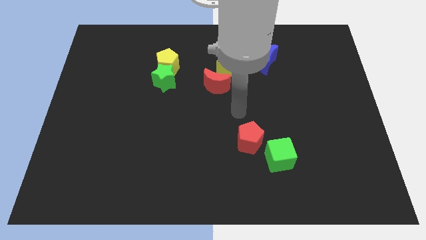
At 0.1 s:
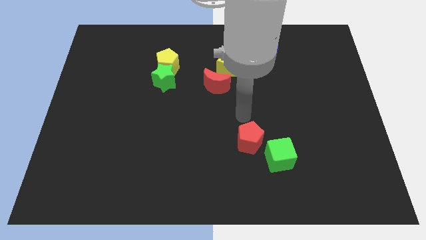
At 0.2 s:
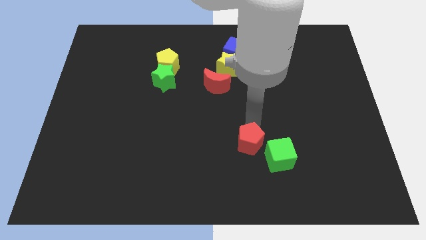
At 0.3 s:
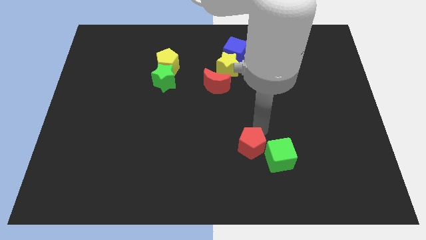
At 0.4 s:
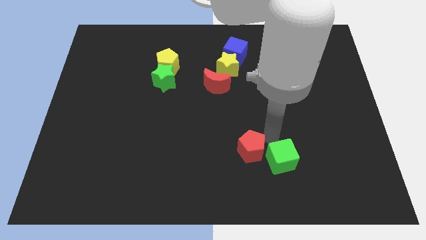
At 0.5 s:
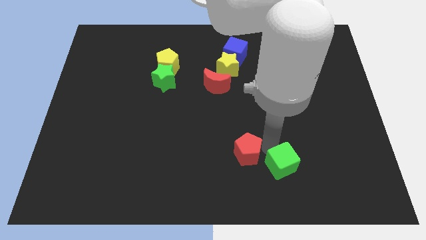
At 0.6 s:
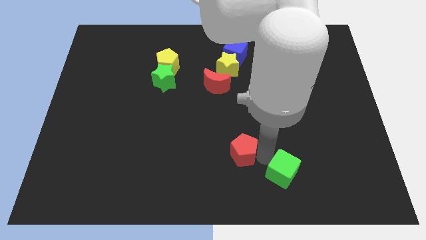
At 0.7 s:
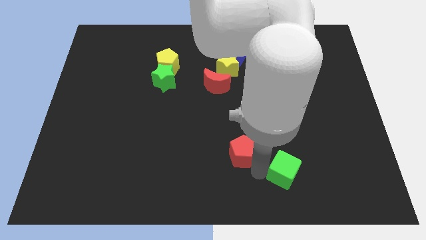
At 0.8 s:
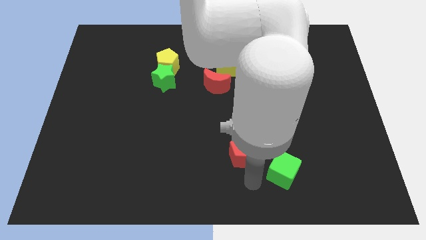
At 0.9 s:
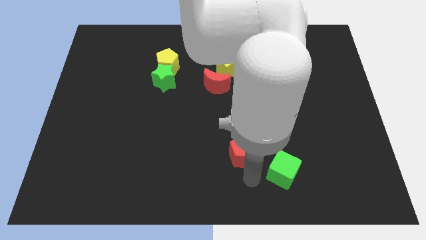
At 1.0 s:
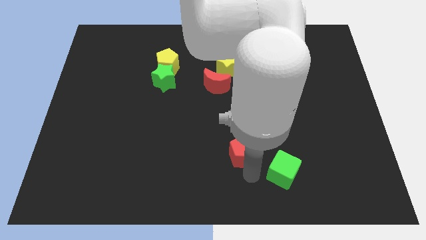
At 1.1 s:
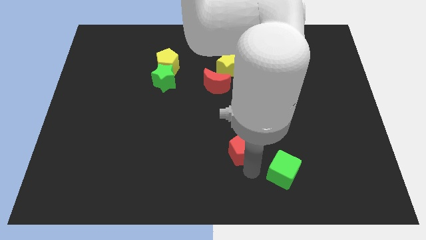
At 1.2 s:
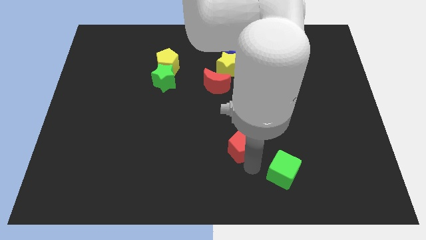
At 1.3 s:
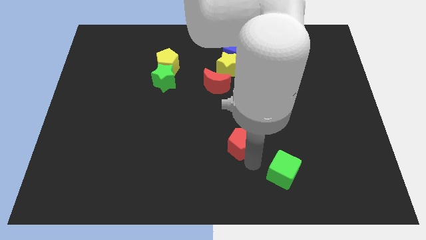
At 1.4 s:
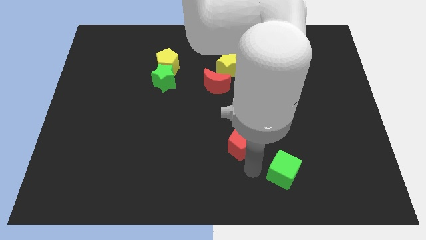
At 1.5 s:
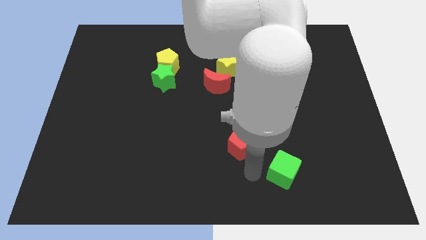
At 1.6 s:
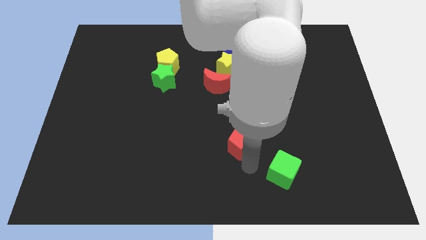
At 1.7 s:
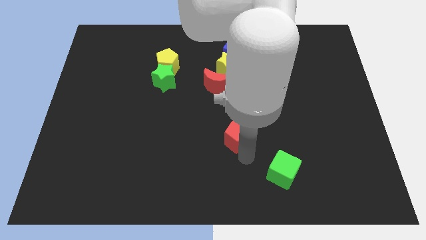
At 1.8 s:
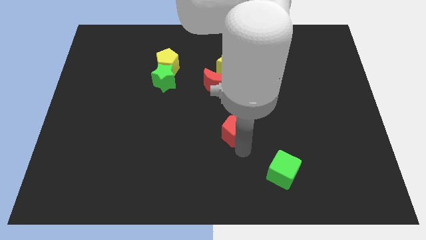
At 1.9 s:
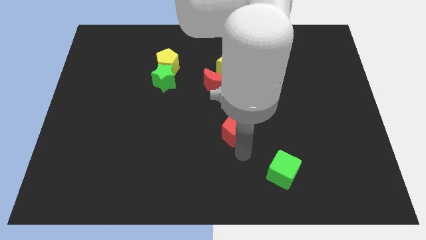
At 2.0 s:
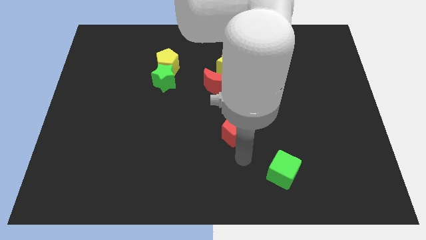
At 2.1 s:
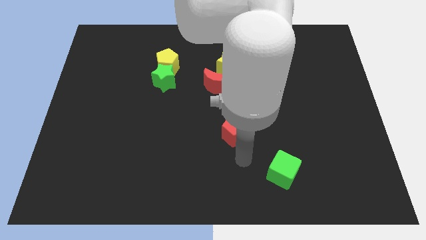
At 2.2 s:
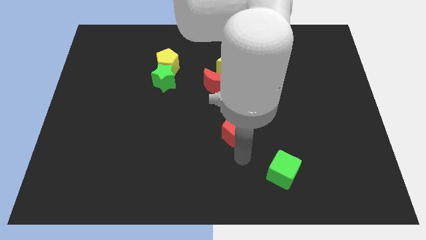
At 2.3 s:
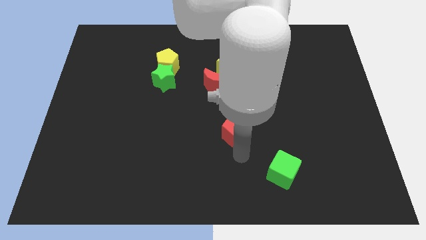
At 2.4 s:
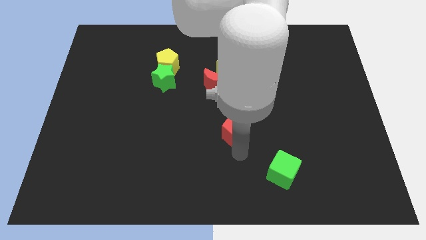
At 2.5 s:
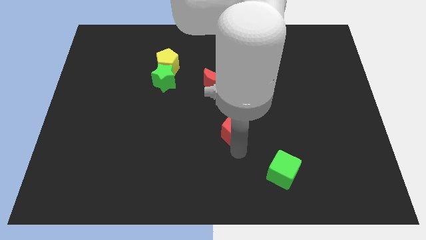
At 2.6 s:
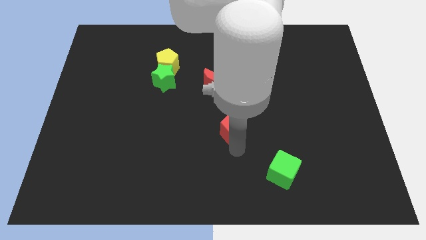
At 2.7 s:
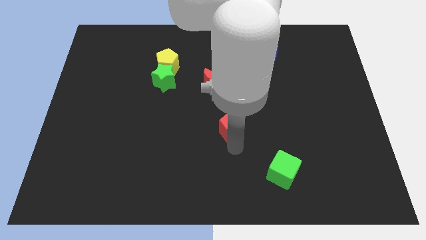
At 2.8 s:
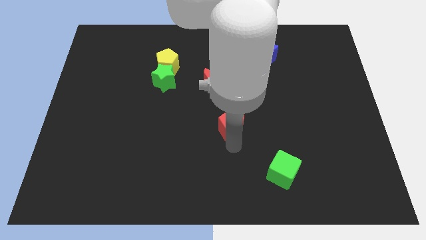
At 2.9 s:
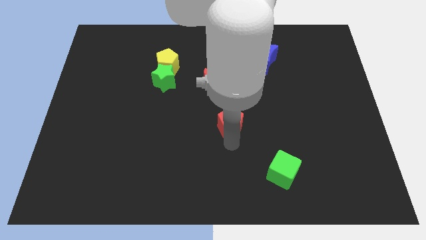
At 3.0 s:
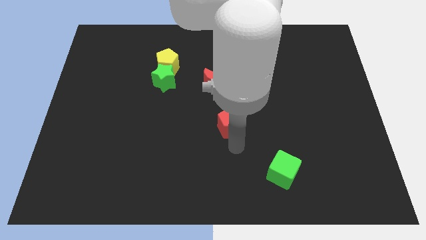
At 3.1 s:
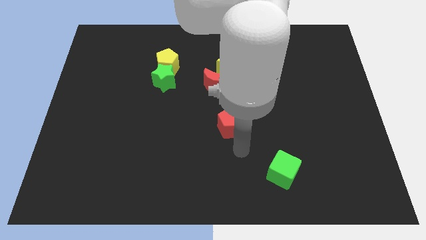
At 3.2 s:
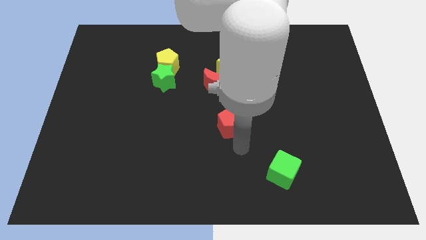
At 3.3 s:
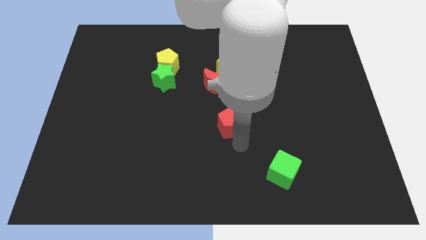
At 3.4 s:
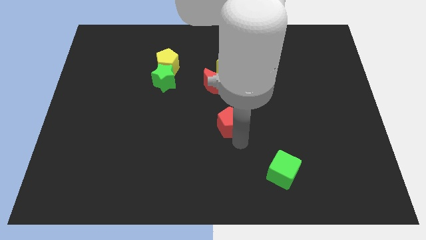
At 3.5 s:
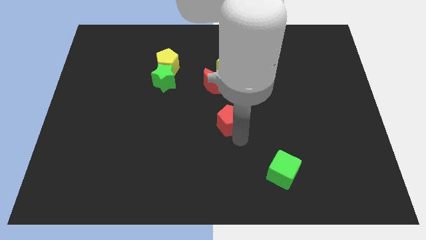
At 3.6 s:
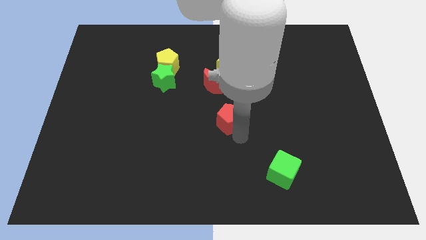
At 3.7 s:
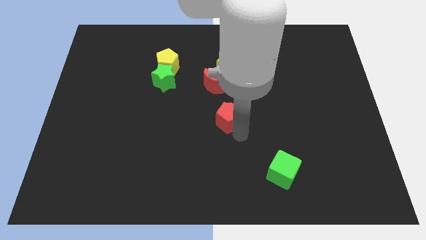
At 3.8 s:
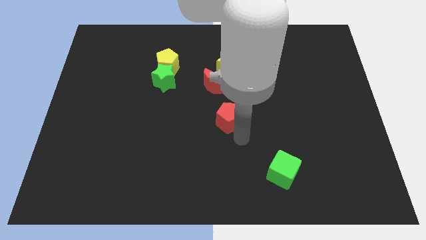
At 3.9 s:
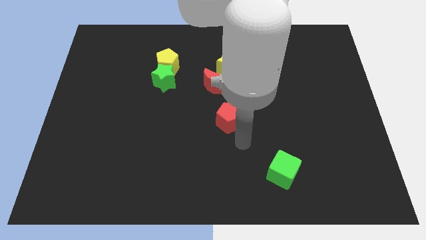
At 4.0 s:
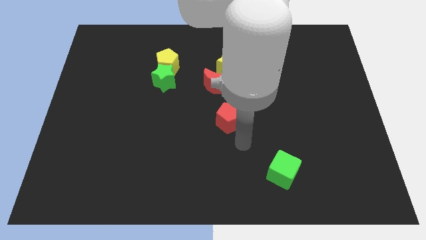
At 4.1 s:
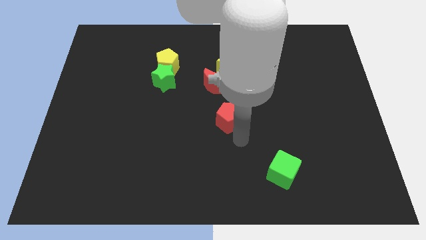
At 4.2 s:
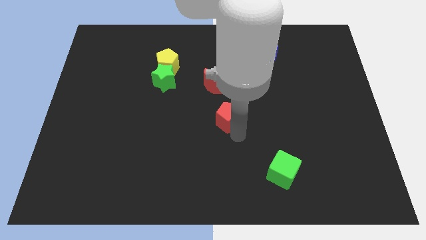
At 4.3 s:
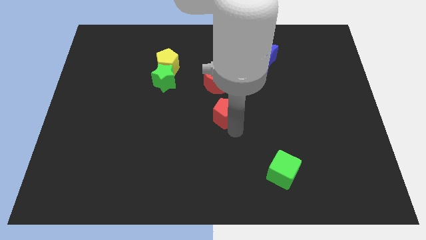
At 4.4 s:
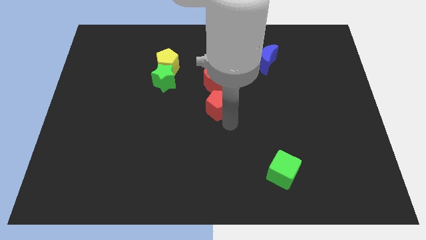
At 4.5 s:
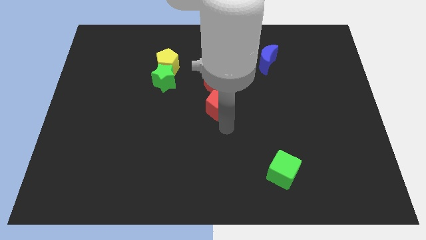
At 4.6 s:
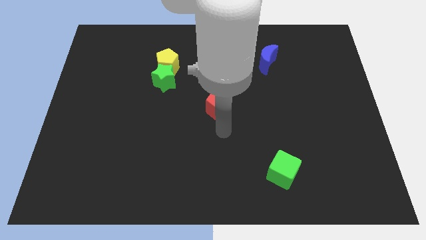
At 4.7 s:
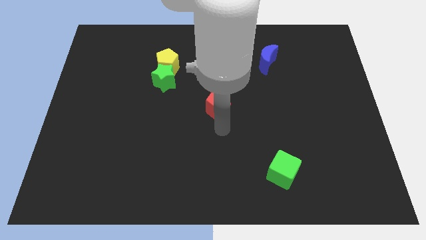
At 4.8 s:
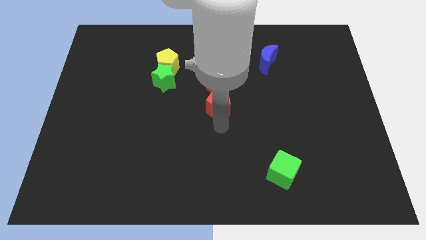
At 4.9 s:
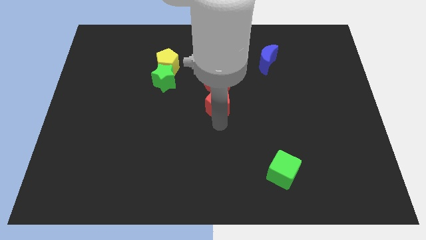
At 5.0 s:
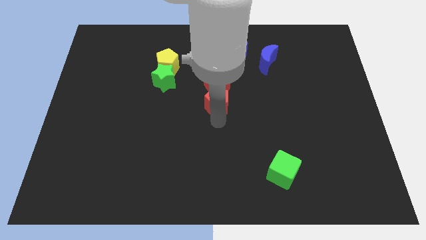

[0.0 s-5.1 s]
put the red pentagon close to the red moon

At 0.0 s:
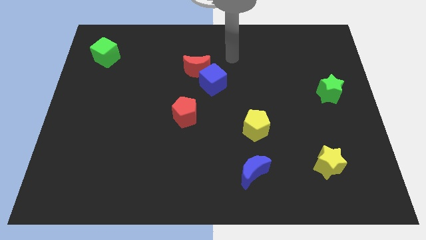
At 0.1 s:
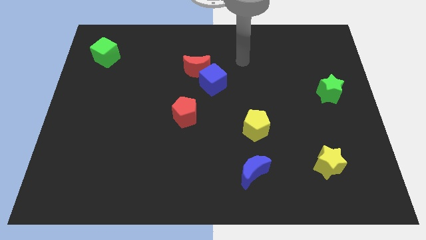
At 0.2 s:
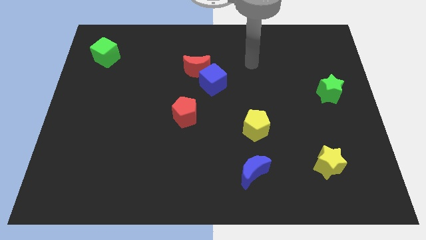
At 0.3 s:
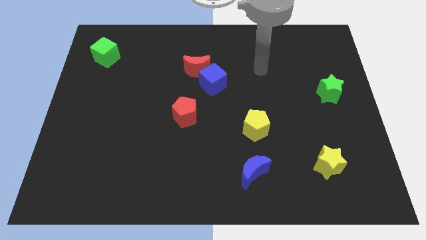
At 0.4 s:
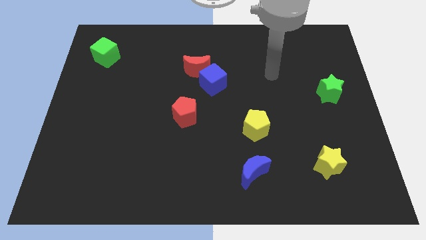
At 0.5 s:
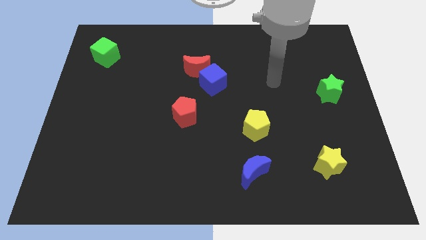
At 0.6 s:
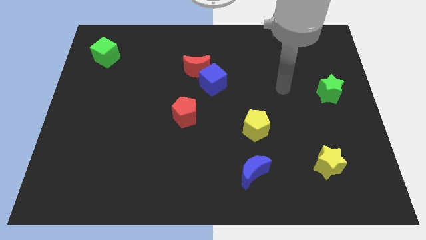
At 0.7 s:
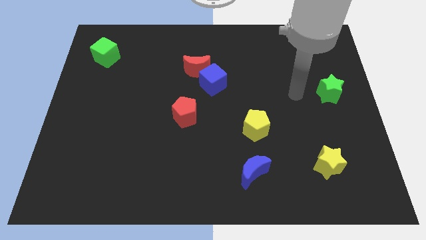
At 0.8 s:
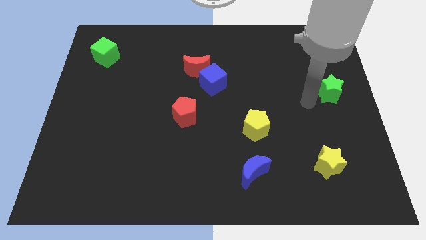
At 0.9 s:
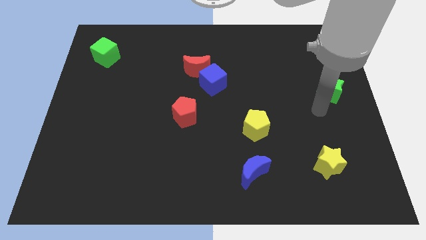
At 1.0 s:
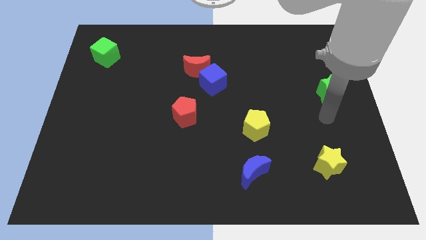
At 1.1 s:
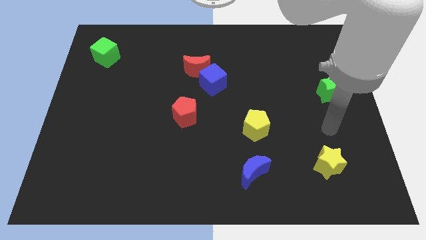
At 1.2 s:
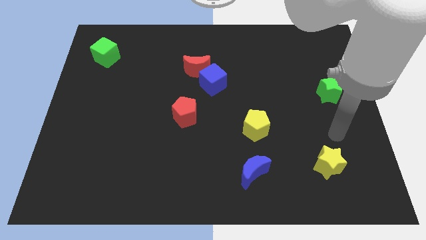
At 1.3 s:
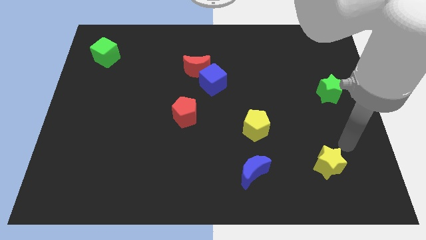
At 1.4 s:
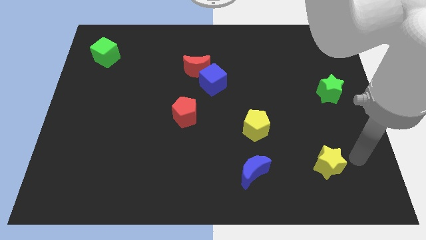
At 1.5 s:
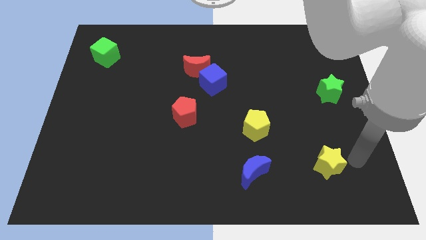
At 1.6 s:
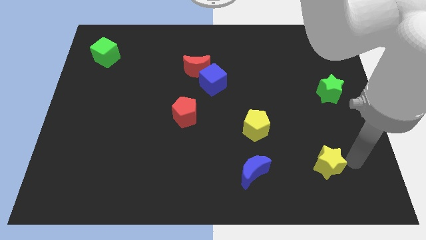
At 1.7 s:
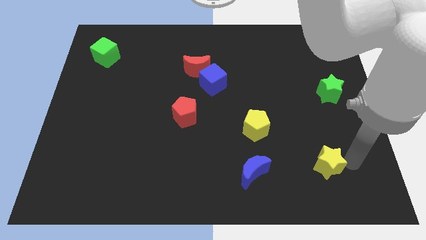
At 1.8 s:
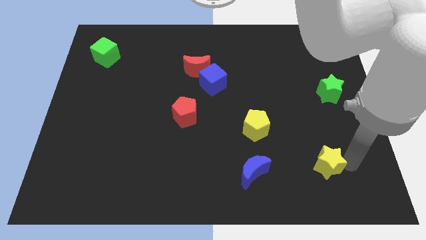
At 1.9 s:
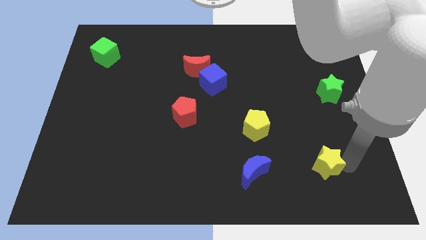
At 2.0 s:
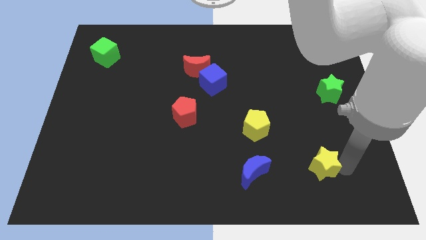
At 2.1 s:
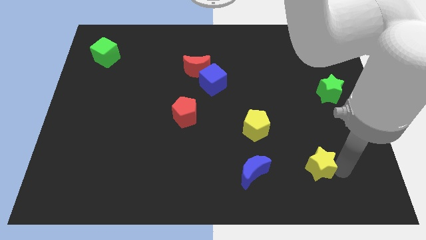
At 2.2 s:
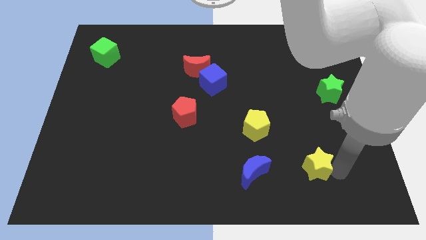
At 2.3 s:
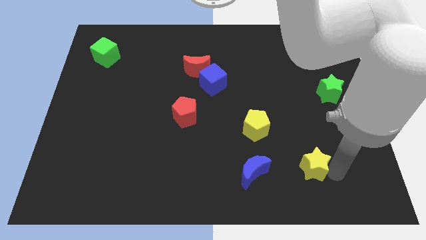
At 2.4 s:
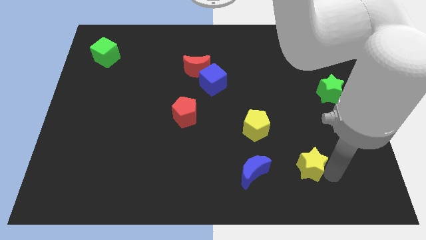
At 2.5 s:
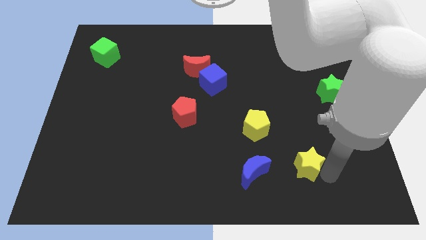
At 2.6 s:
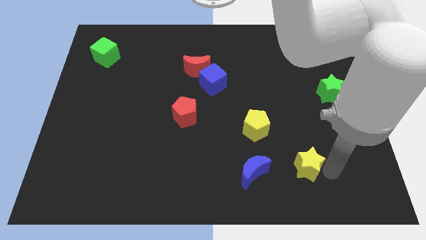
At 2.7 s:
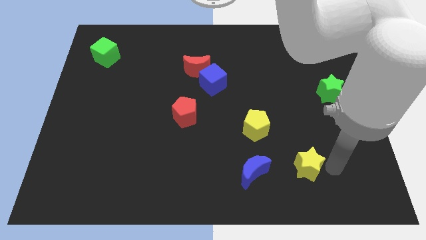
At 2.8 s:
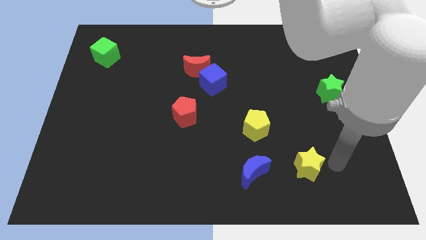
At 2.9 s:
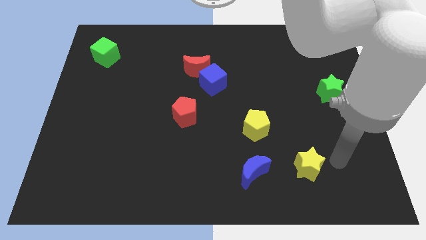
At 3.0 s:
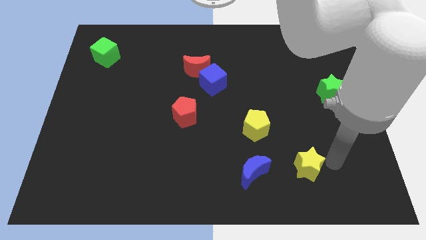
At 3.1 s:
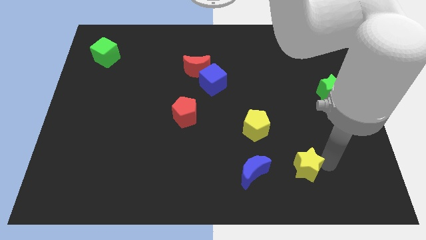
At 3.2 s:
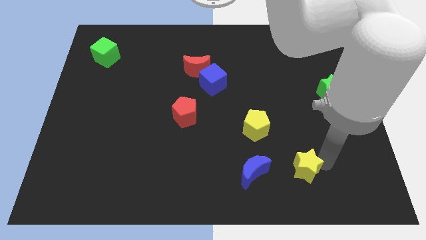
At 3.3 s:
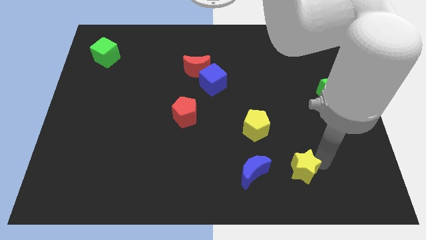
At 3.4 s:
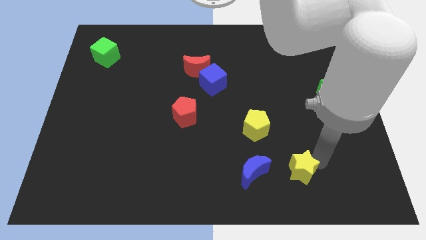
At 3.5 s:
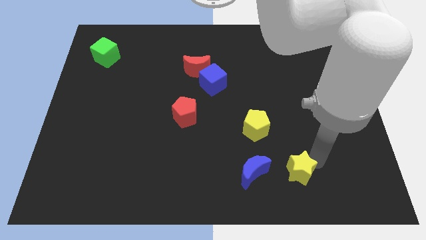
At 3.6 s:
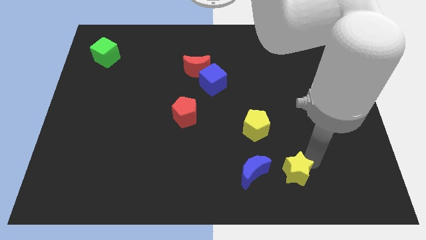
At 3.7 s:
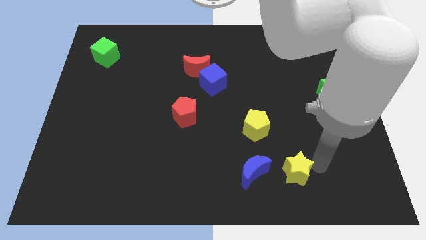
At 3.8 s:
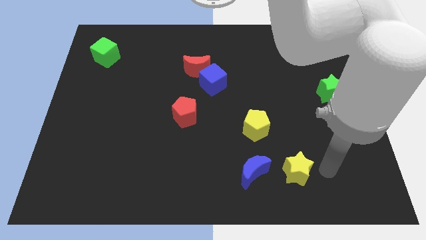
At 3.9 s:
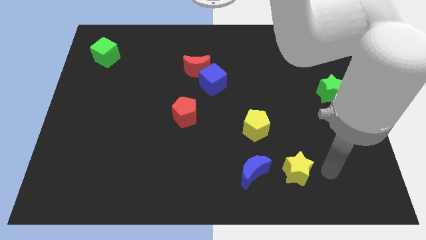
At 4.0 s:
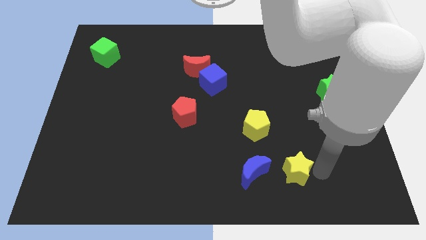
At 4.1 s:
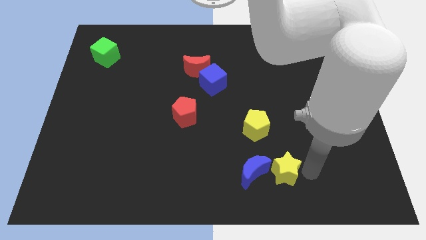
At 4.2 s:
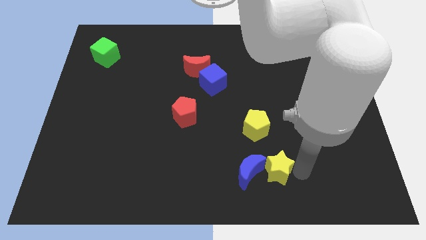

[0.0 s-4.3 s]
push the yellow star towards the blue moon
